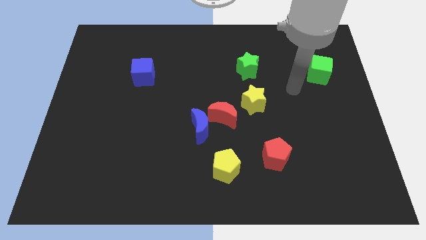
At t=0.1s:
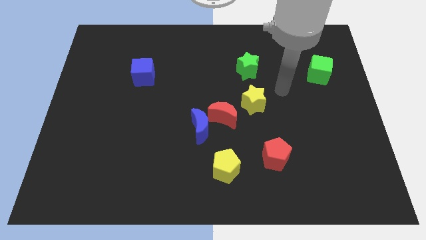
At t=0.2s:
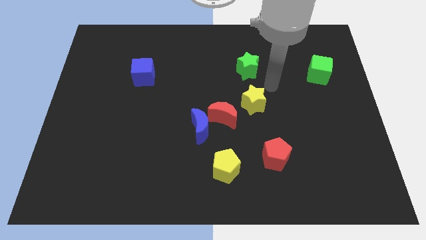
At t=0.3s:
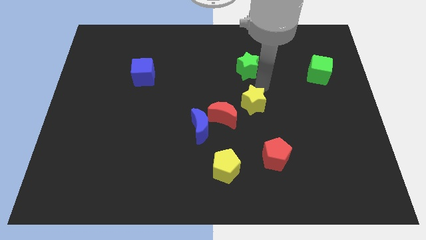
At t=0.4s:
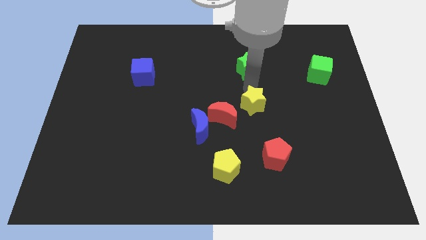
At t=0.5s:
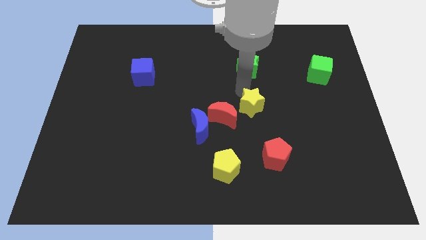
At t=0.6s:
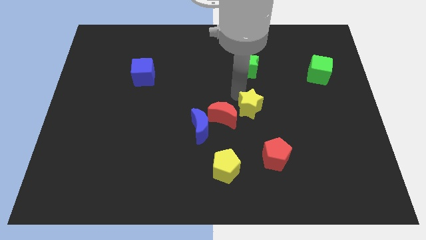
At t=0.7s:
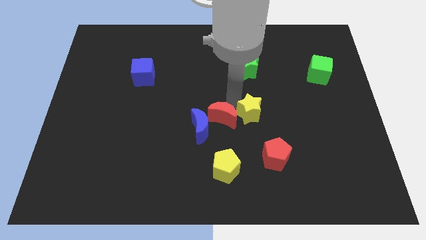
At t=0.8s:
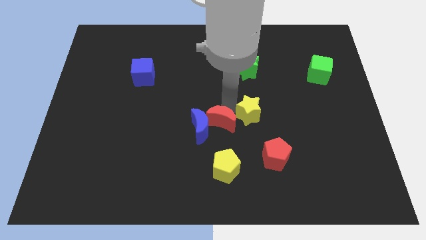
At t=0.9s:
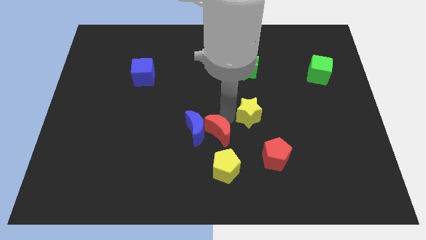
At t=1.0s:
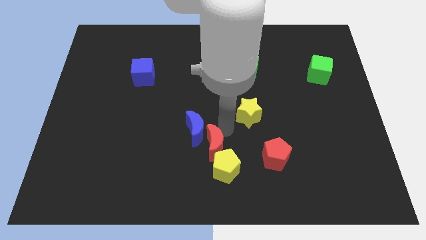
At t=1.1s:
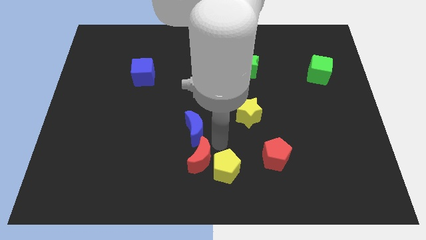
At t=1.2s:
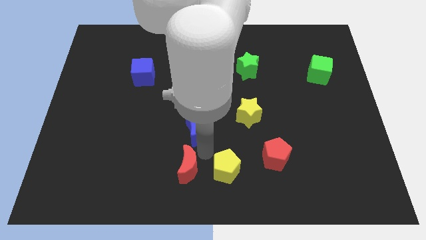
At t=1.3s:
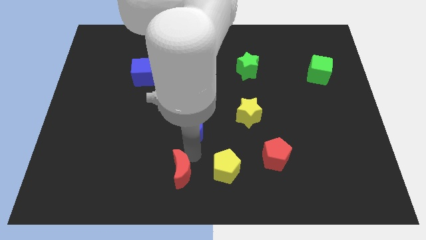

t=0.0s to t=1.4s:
move the blue moon away from the red moon

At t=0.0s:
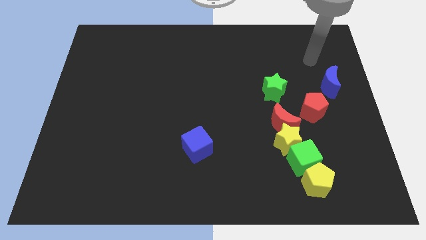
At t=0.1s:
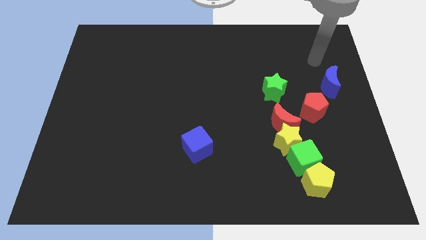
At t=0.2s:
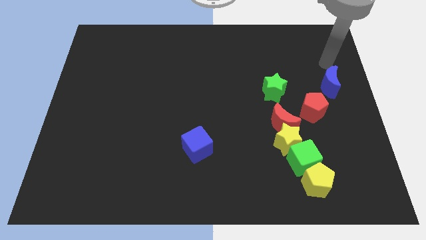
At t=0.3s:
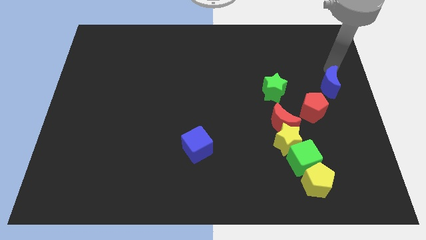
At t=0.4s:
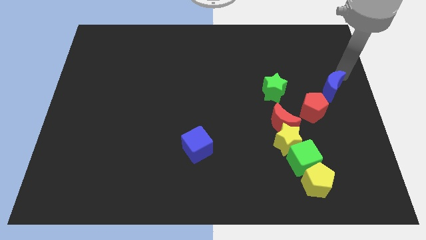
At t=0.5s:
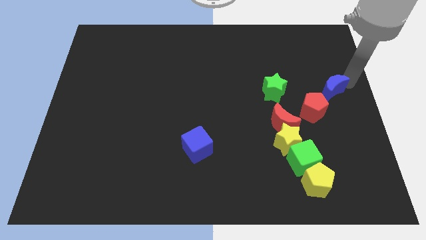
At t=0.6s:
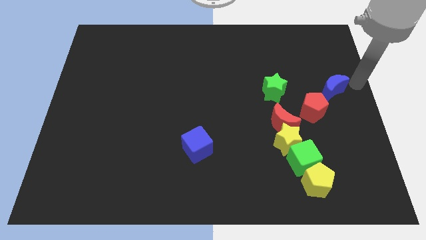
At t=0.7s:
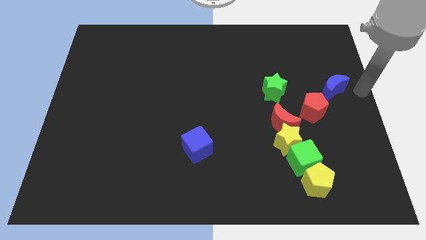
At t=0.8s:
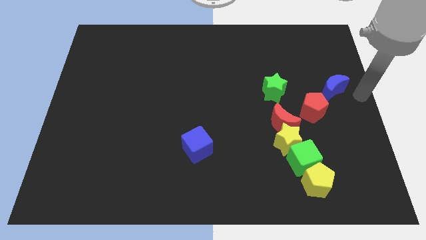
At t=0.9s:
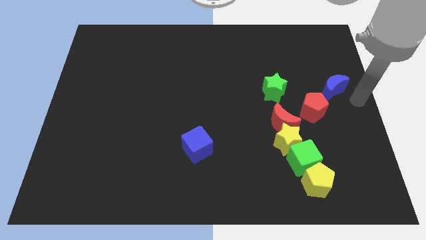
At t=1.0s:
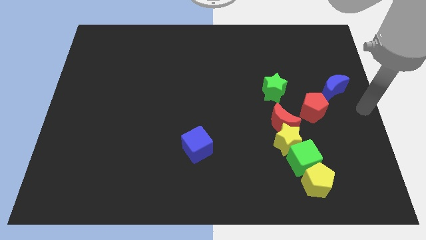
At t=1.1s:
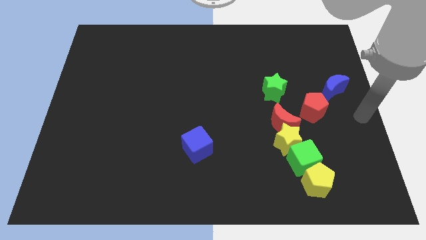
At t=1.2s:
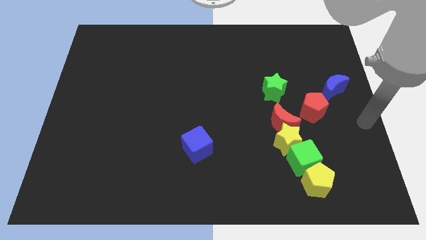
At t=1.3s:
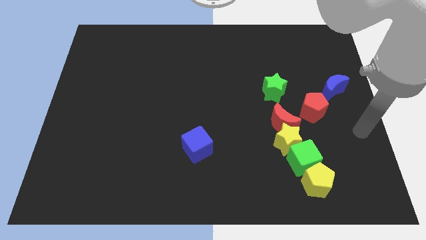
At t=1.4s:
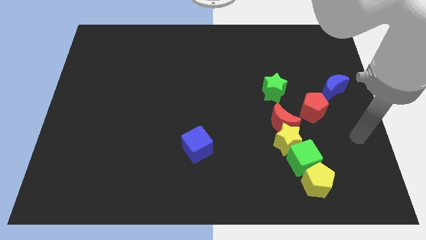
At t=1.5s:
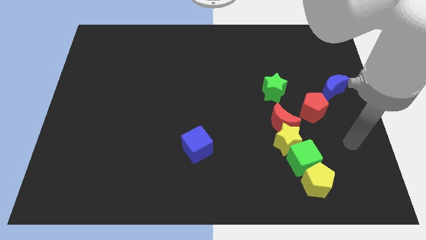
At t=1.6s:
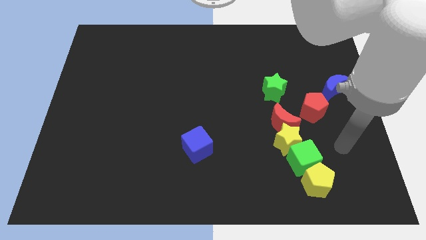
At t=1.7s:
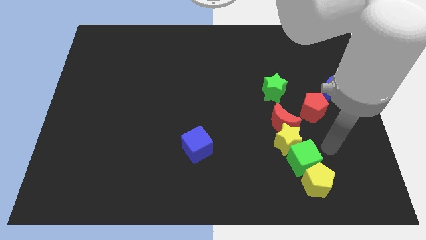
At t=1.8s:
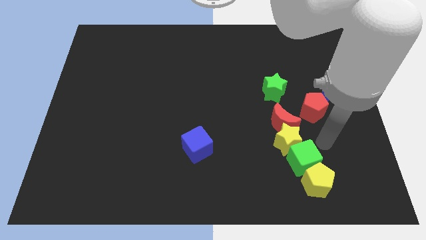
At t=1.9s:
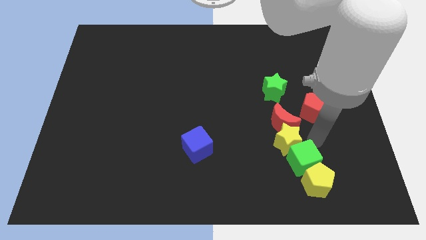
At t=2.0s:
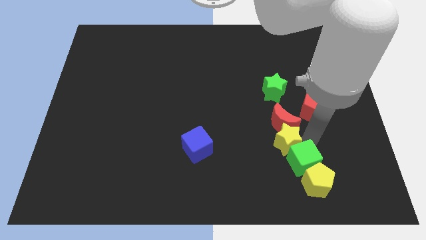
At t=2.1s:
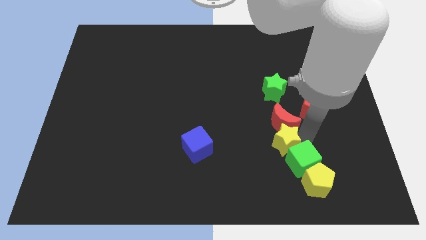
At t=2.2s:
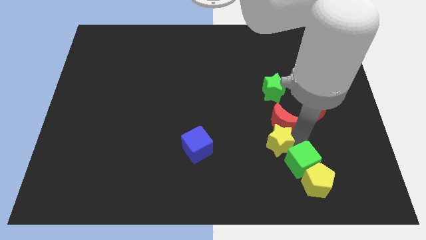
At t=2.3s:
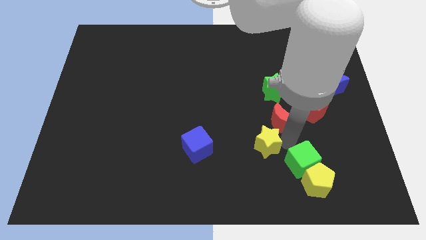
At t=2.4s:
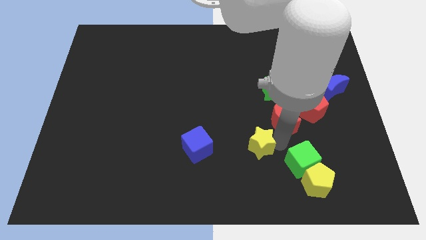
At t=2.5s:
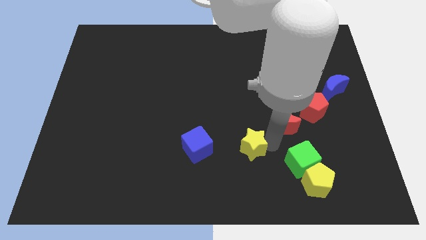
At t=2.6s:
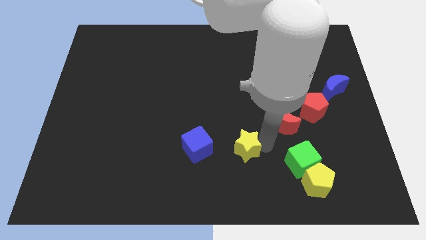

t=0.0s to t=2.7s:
pull the yellow star apart from the red moon and green cube

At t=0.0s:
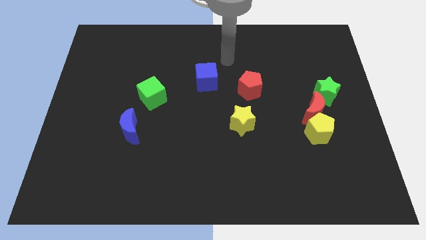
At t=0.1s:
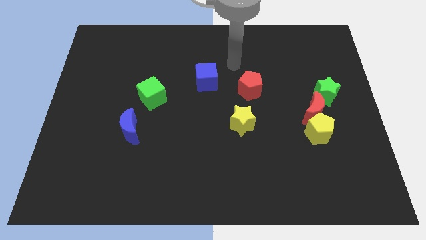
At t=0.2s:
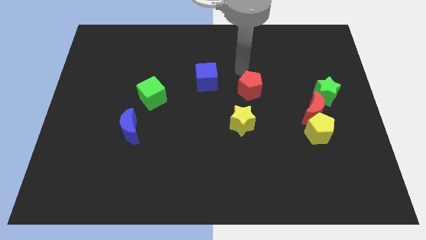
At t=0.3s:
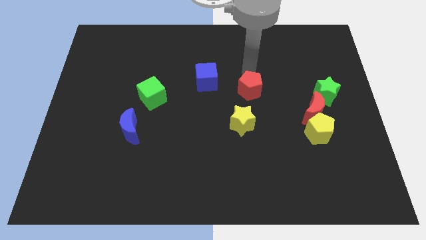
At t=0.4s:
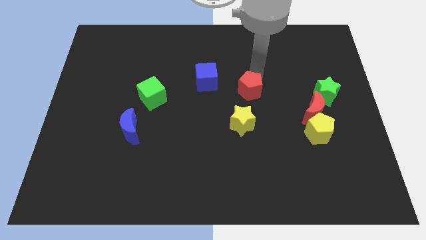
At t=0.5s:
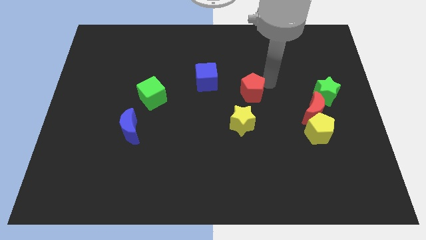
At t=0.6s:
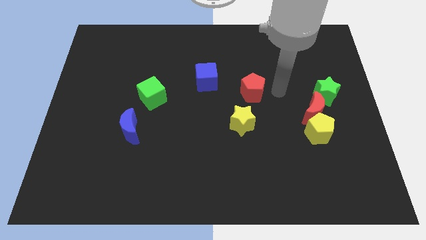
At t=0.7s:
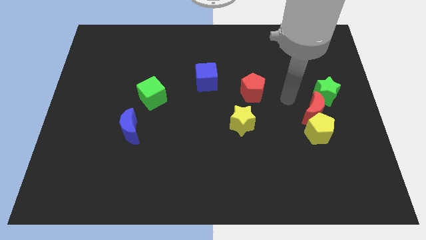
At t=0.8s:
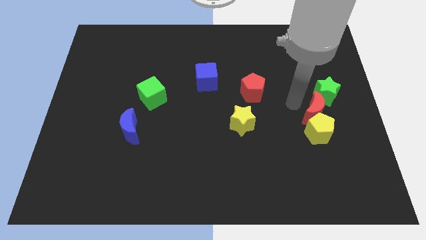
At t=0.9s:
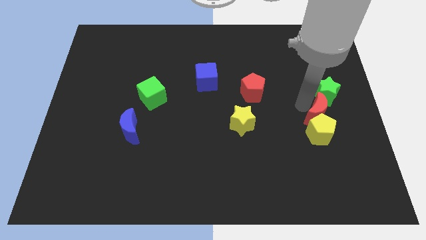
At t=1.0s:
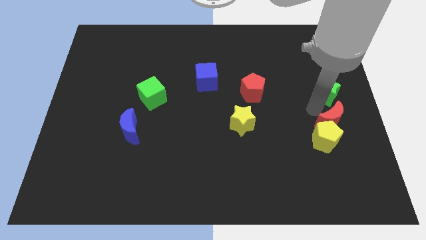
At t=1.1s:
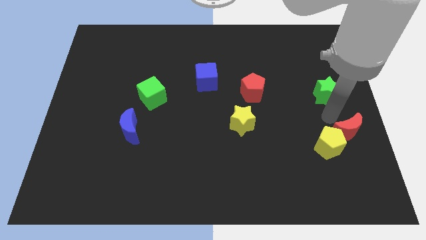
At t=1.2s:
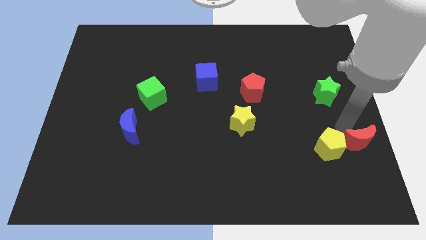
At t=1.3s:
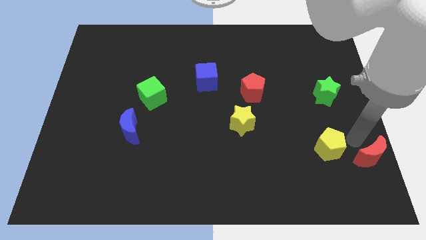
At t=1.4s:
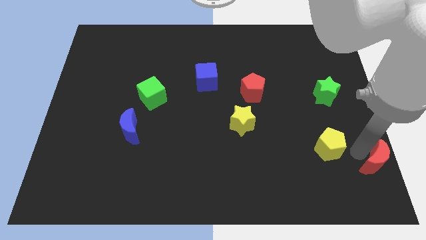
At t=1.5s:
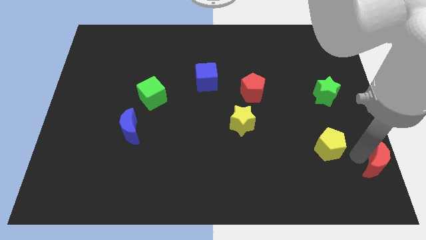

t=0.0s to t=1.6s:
separate the yellow pentagon from the red moon

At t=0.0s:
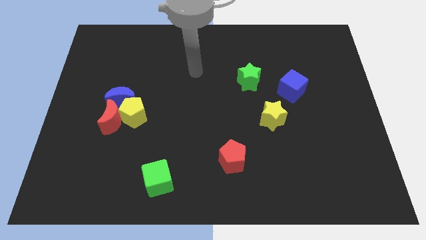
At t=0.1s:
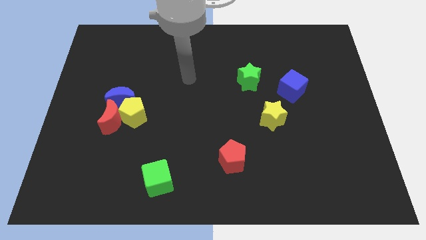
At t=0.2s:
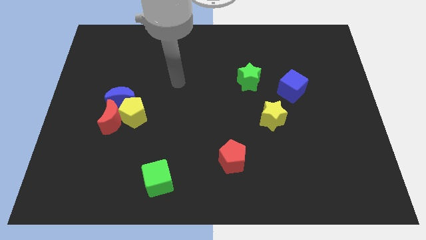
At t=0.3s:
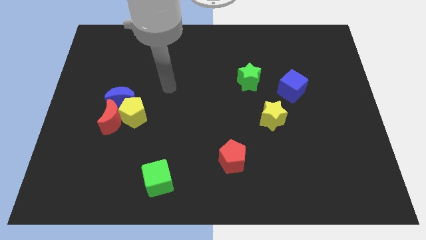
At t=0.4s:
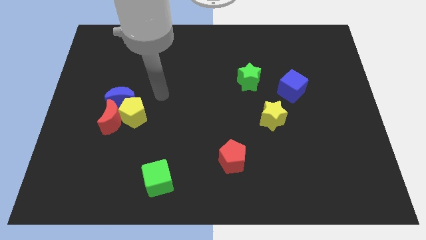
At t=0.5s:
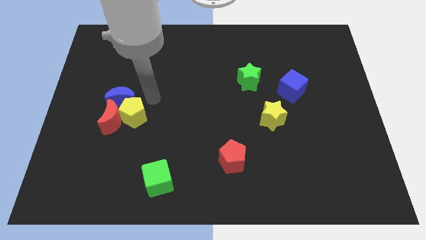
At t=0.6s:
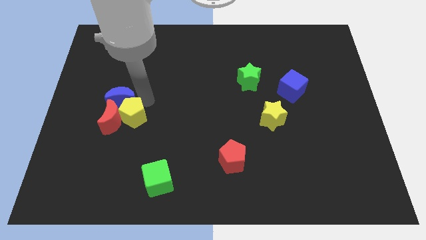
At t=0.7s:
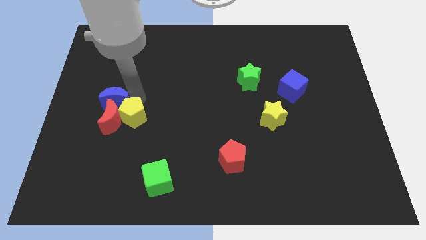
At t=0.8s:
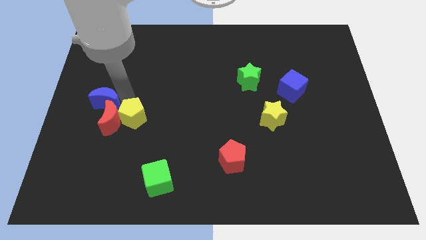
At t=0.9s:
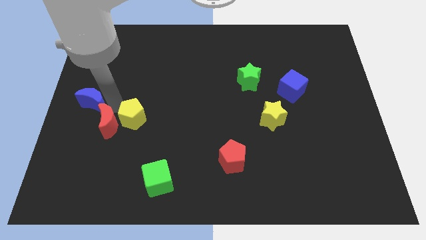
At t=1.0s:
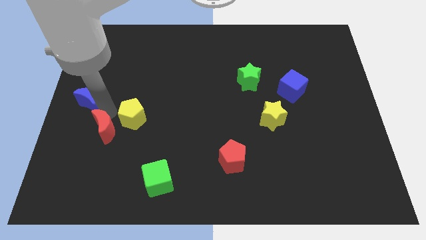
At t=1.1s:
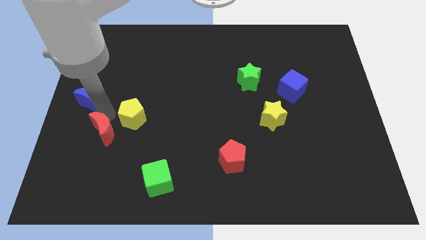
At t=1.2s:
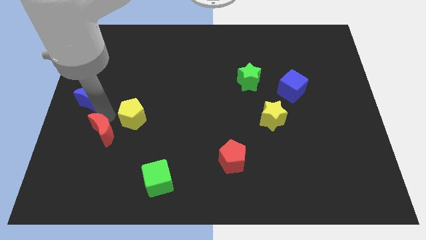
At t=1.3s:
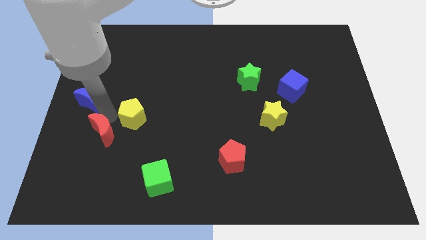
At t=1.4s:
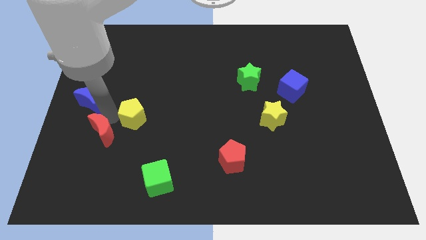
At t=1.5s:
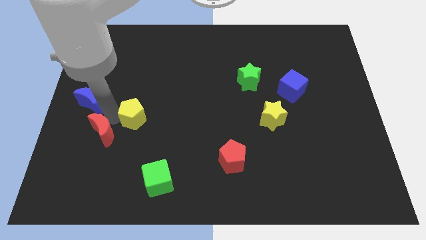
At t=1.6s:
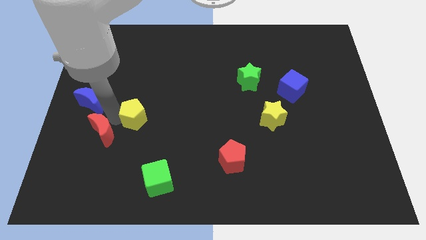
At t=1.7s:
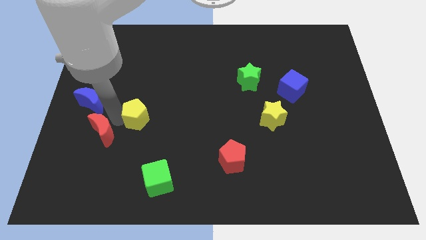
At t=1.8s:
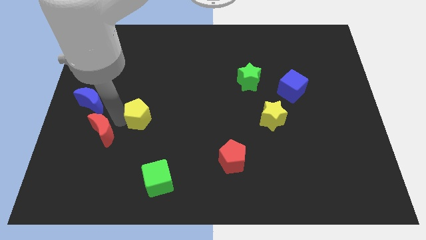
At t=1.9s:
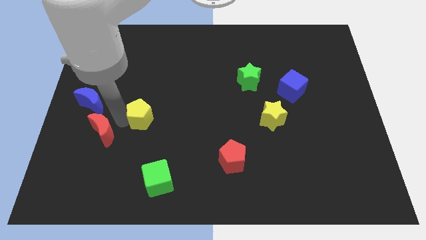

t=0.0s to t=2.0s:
pull the yellow pentagon apart from the red moon and blue moon

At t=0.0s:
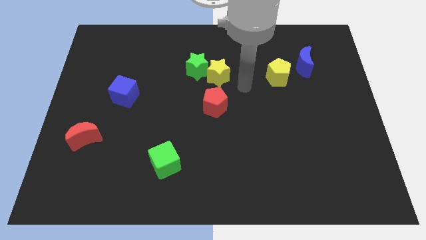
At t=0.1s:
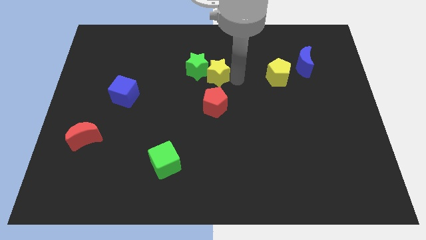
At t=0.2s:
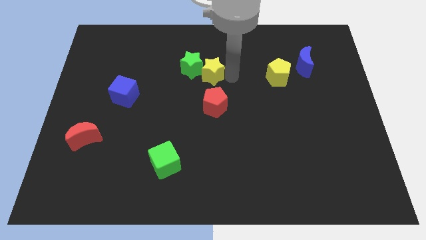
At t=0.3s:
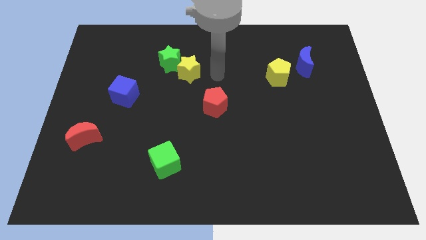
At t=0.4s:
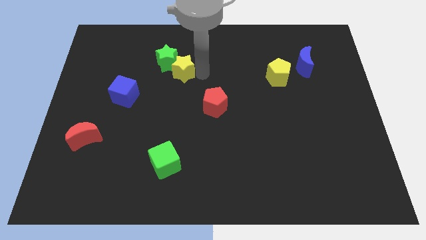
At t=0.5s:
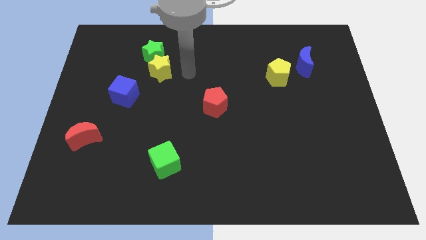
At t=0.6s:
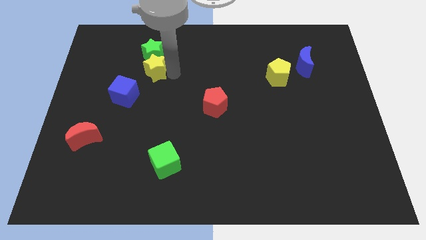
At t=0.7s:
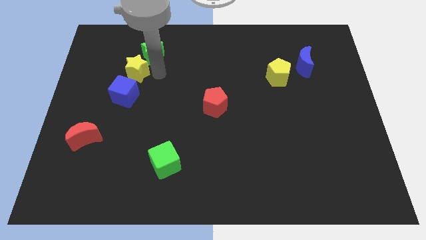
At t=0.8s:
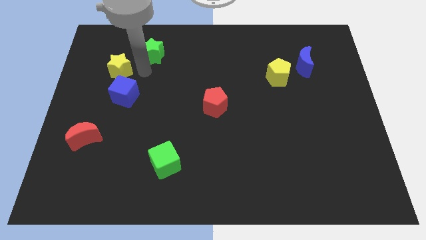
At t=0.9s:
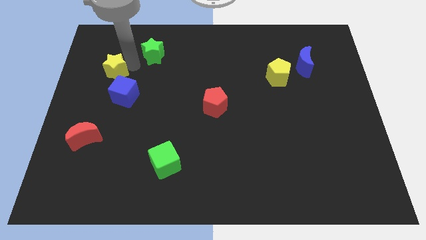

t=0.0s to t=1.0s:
move the green star away from the yellow star

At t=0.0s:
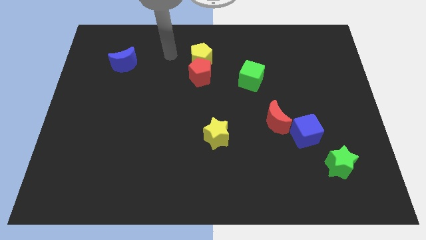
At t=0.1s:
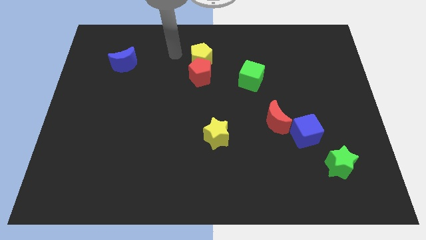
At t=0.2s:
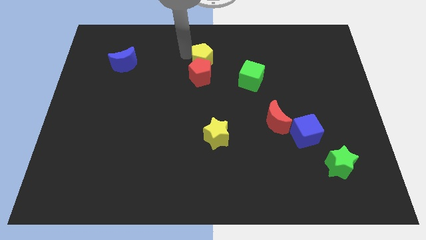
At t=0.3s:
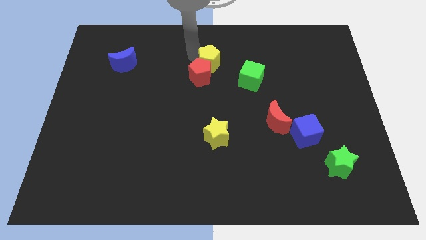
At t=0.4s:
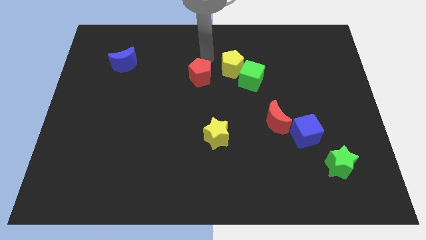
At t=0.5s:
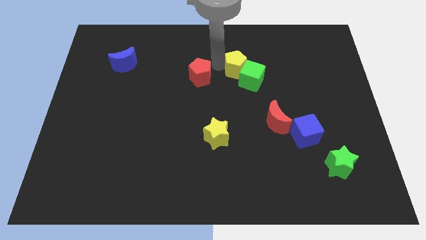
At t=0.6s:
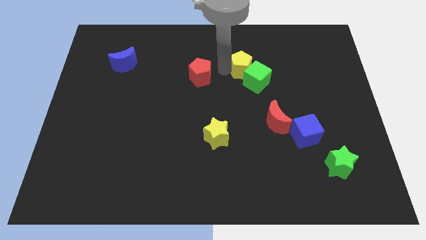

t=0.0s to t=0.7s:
move the red pentagon away from the yellow pentagon
